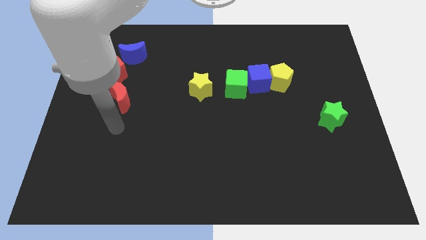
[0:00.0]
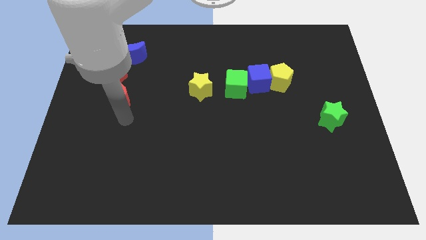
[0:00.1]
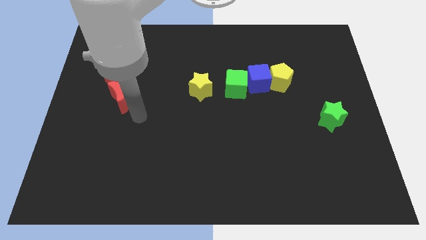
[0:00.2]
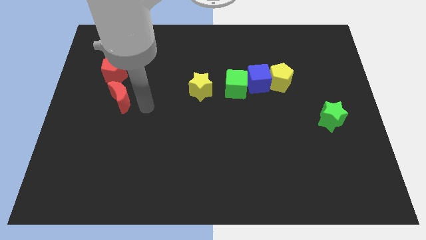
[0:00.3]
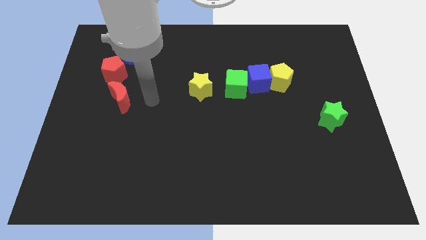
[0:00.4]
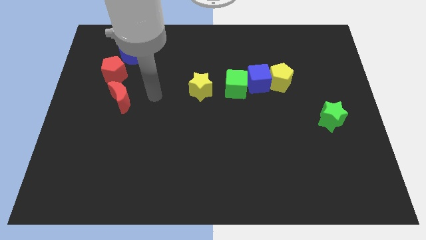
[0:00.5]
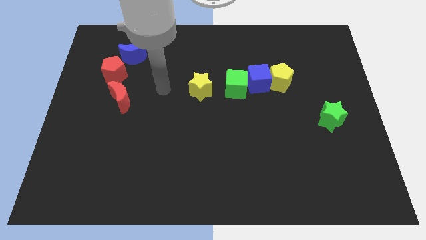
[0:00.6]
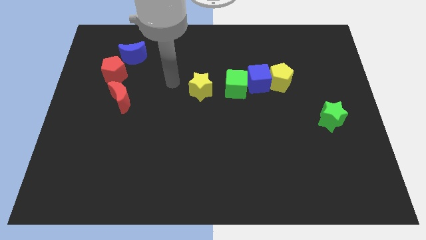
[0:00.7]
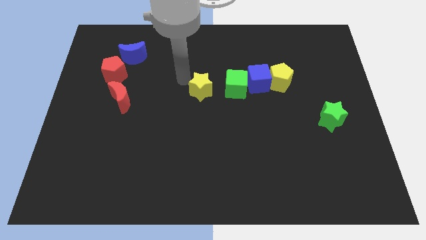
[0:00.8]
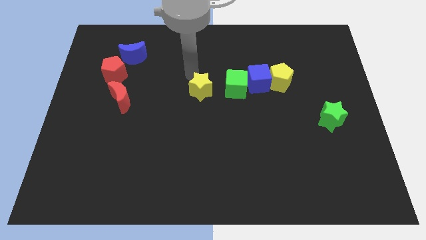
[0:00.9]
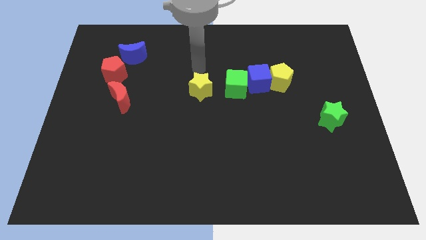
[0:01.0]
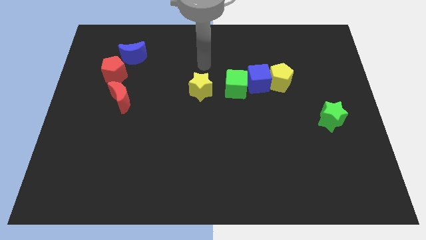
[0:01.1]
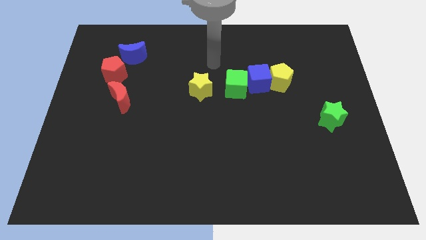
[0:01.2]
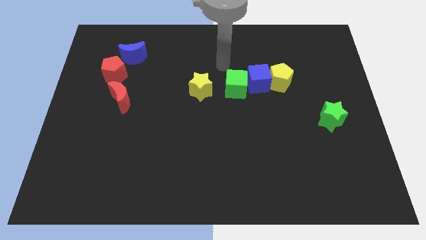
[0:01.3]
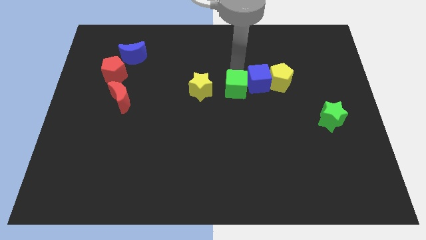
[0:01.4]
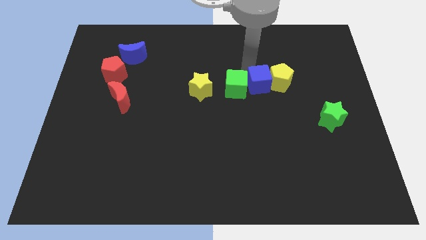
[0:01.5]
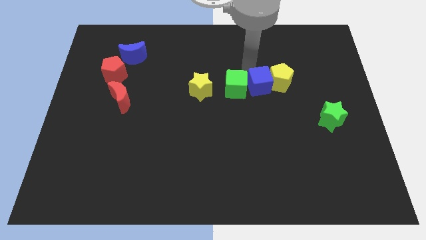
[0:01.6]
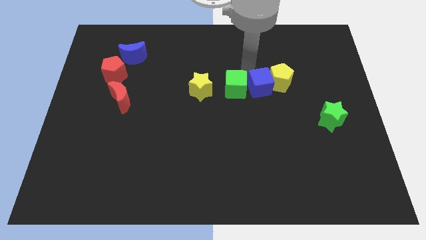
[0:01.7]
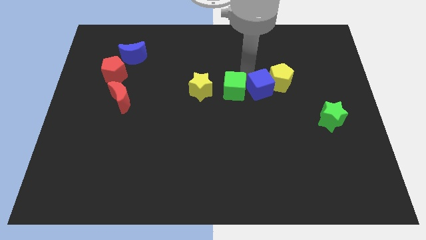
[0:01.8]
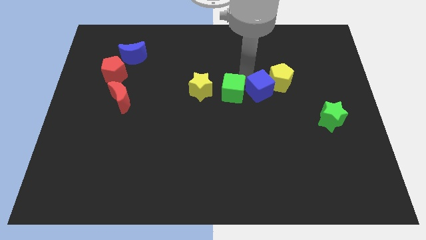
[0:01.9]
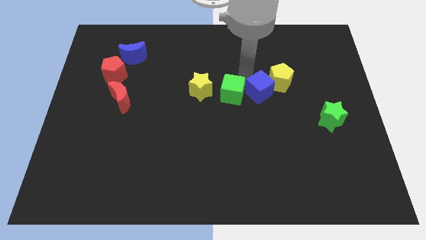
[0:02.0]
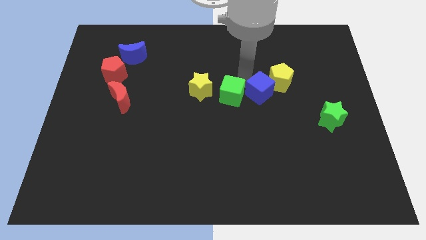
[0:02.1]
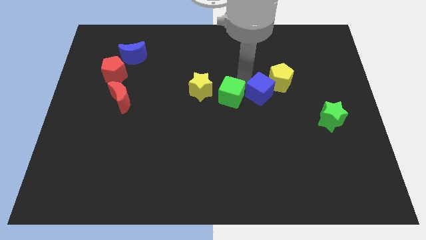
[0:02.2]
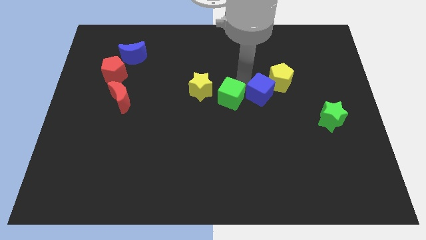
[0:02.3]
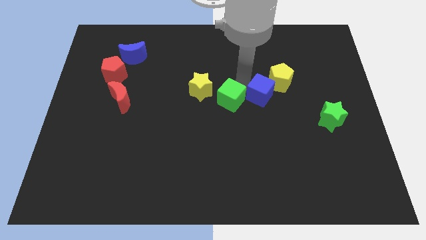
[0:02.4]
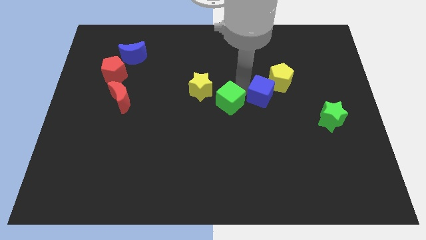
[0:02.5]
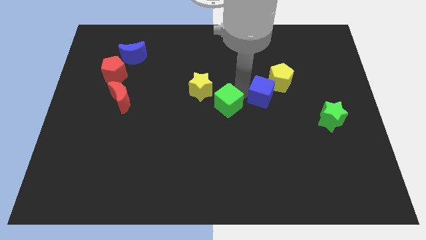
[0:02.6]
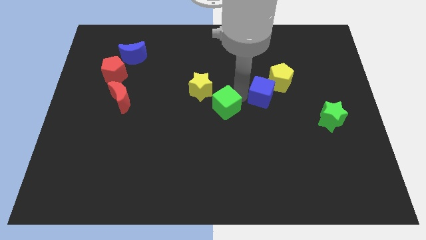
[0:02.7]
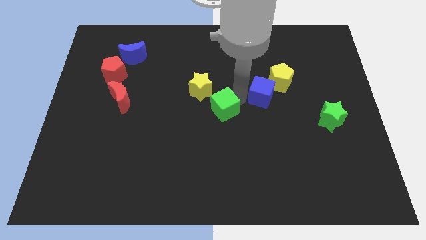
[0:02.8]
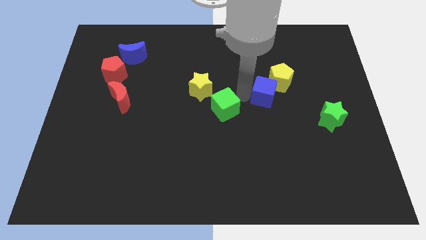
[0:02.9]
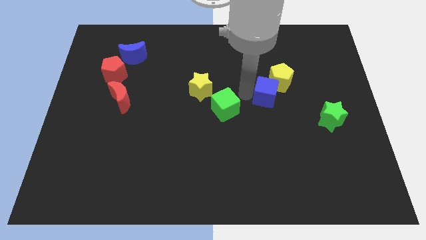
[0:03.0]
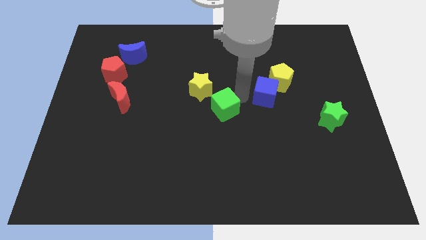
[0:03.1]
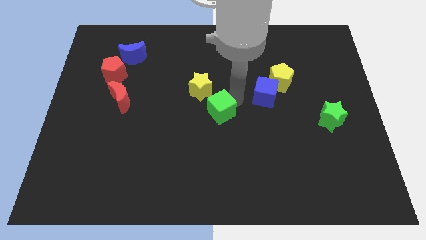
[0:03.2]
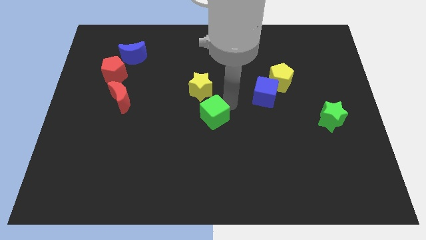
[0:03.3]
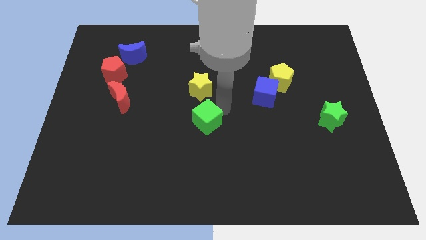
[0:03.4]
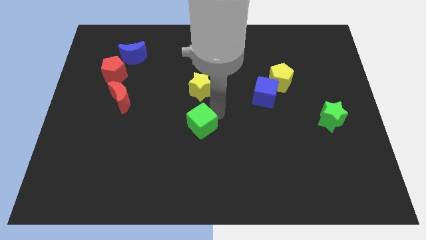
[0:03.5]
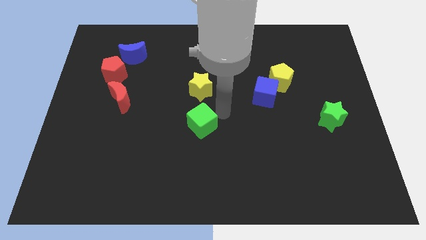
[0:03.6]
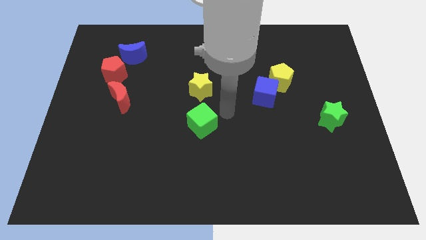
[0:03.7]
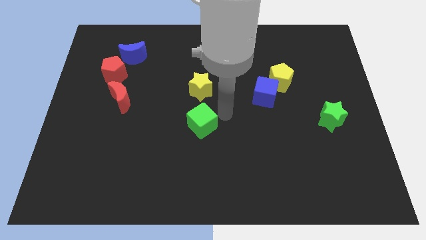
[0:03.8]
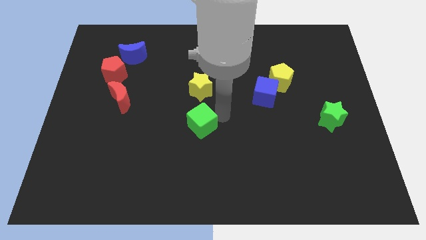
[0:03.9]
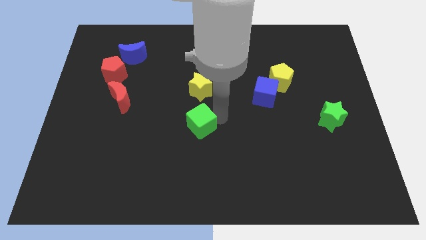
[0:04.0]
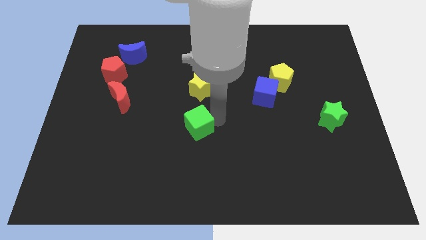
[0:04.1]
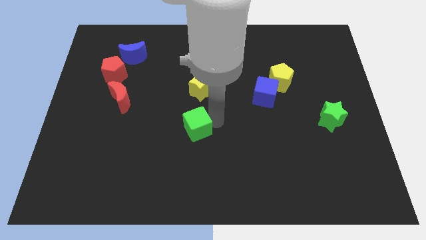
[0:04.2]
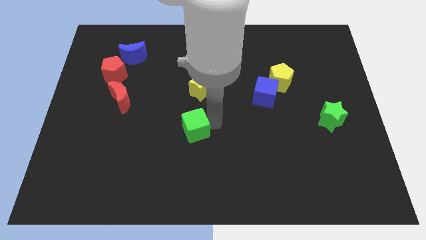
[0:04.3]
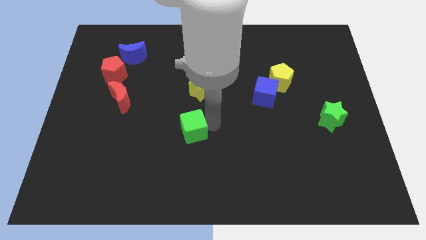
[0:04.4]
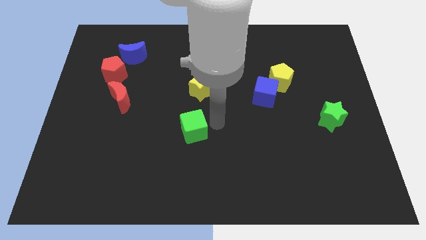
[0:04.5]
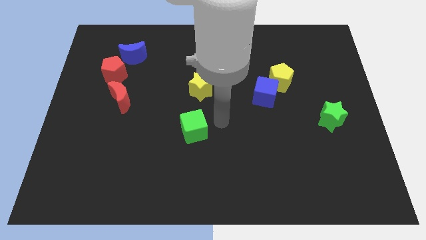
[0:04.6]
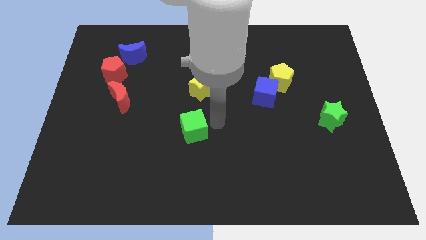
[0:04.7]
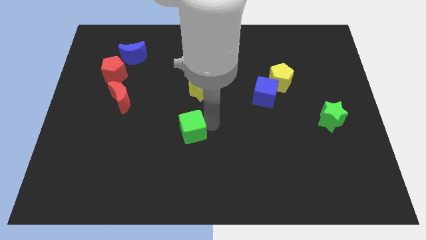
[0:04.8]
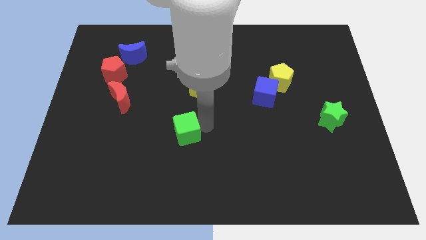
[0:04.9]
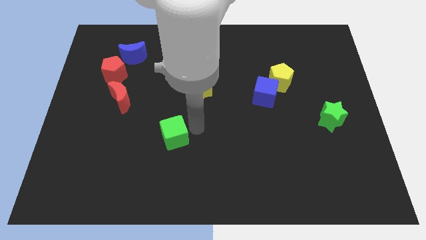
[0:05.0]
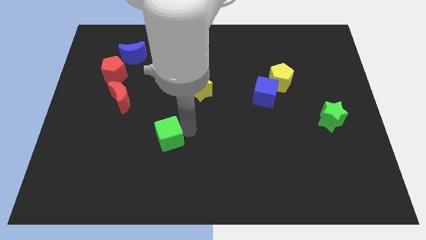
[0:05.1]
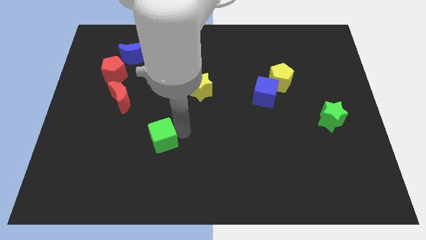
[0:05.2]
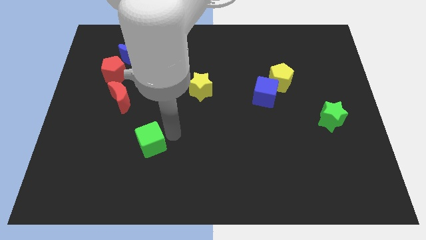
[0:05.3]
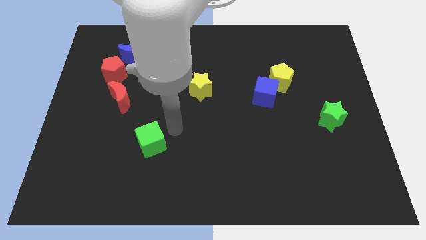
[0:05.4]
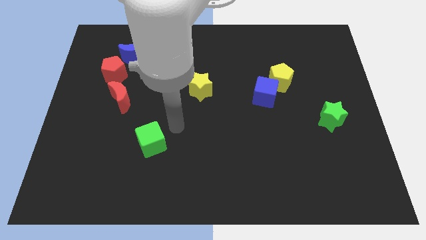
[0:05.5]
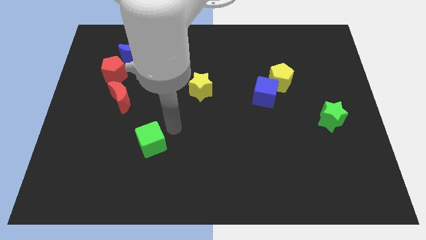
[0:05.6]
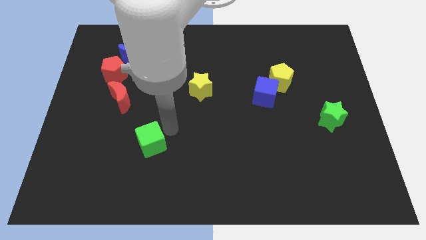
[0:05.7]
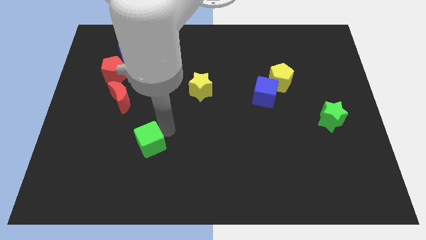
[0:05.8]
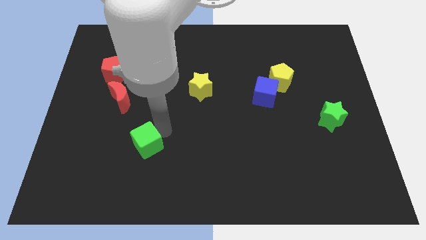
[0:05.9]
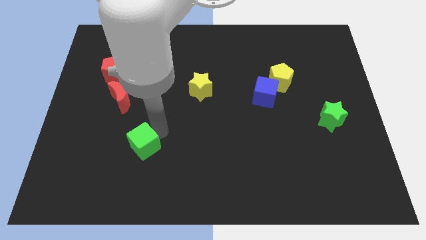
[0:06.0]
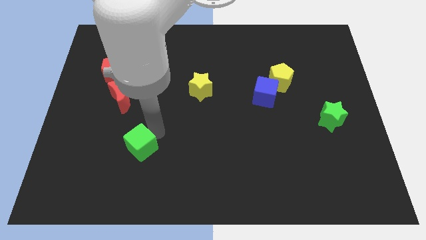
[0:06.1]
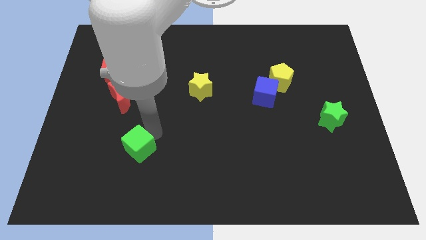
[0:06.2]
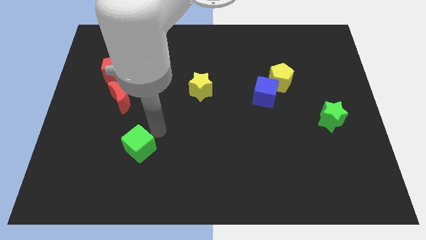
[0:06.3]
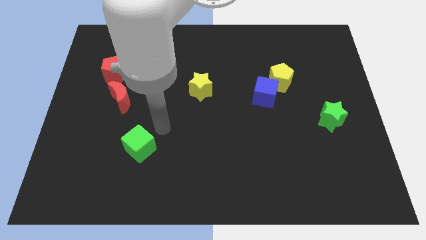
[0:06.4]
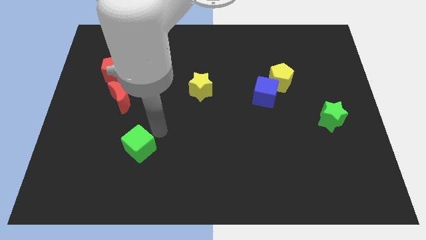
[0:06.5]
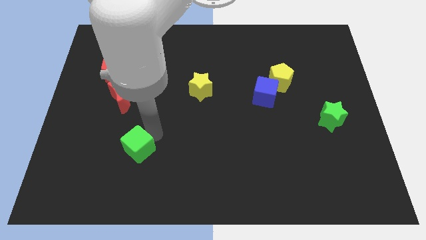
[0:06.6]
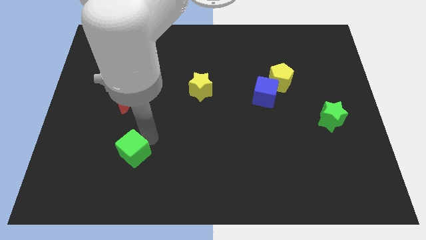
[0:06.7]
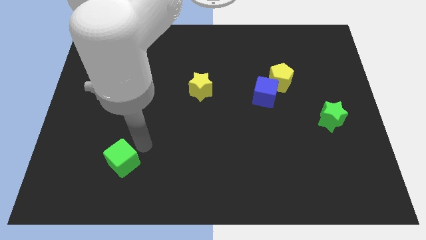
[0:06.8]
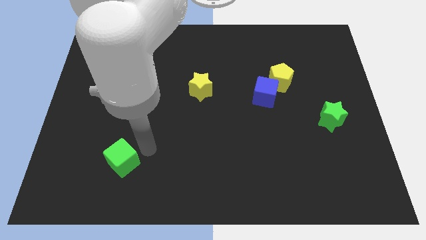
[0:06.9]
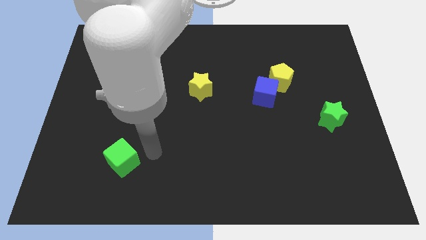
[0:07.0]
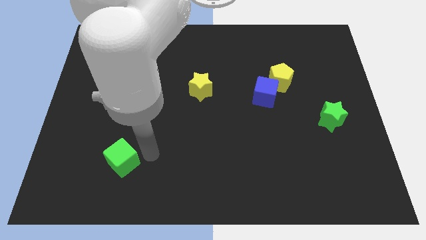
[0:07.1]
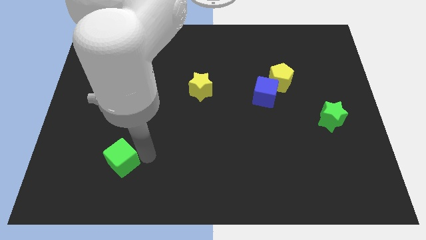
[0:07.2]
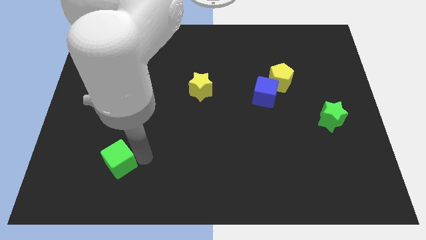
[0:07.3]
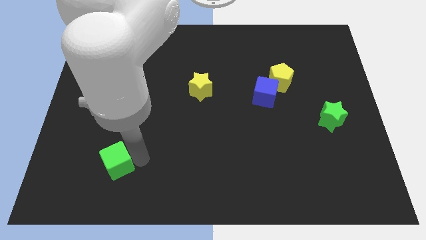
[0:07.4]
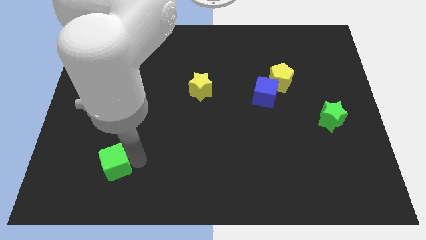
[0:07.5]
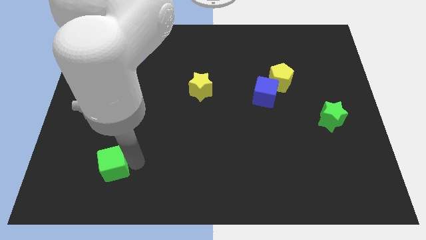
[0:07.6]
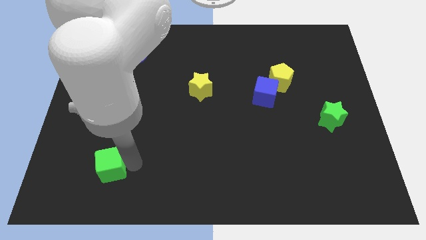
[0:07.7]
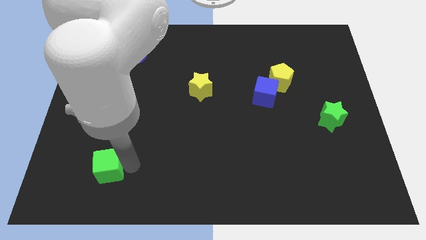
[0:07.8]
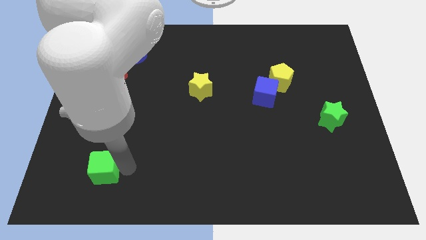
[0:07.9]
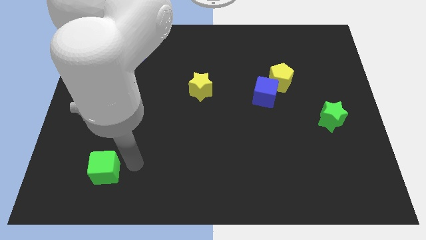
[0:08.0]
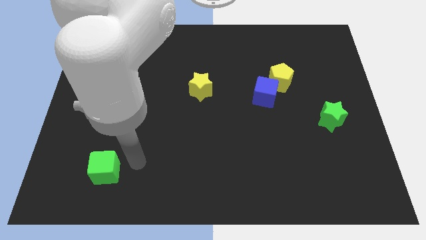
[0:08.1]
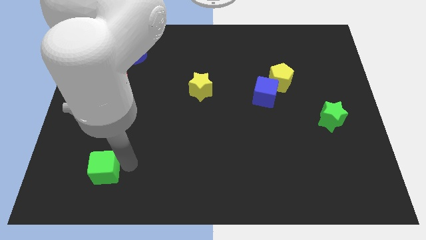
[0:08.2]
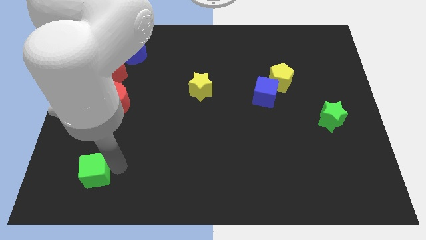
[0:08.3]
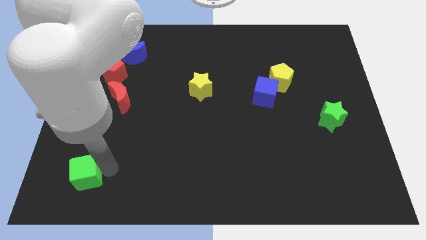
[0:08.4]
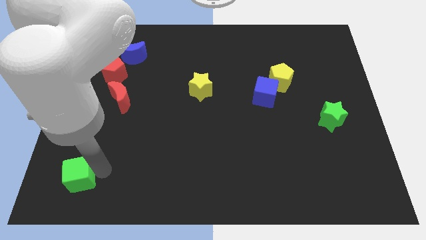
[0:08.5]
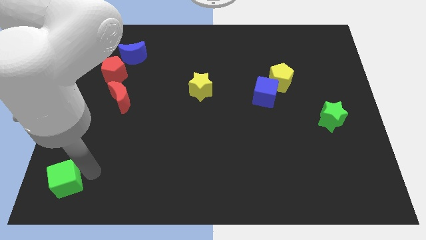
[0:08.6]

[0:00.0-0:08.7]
move the green cube to the bottom left corner
